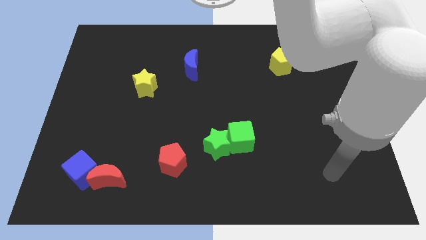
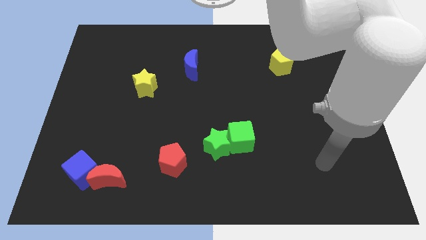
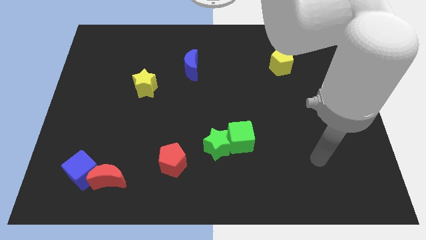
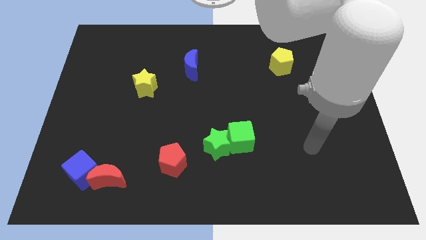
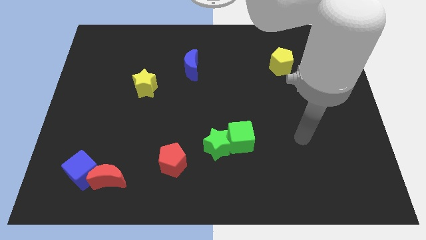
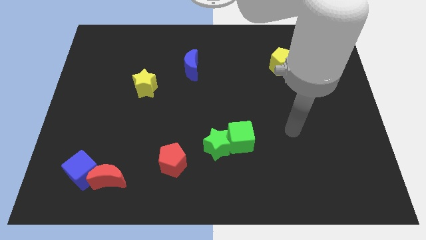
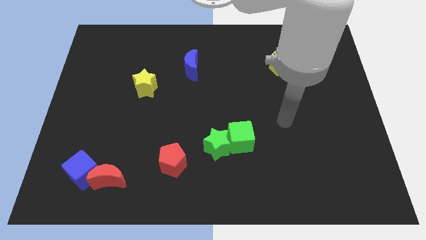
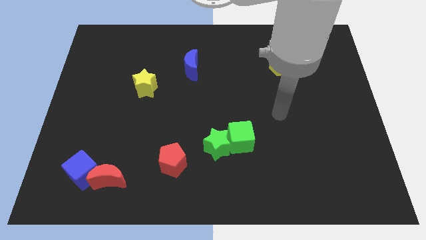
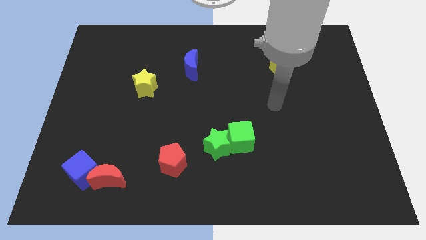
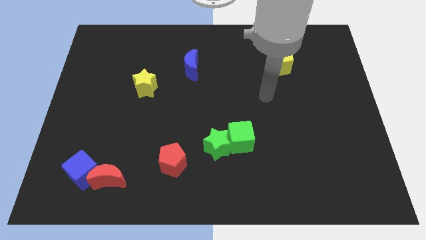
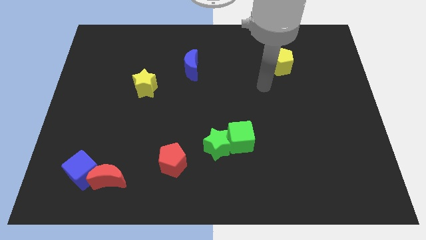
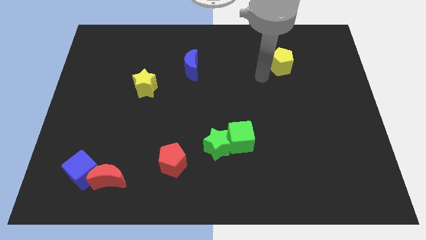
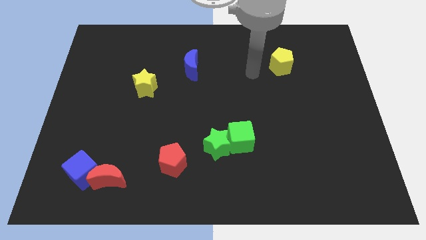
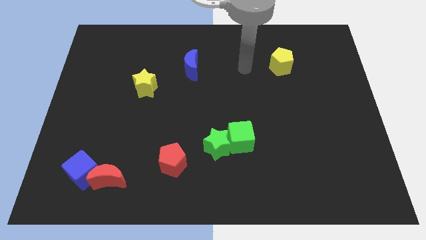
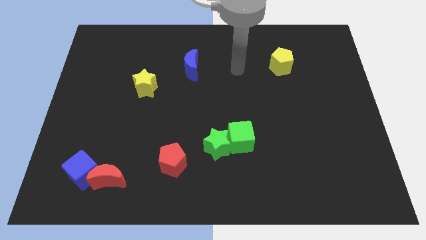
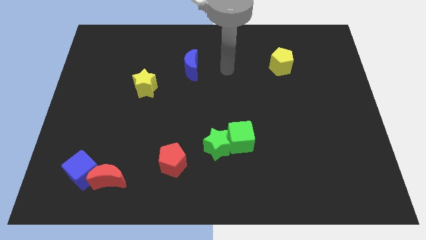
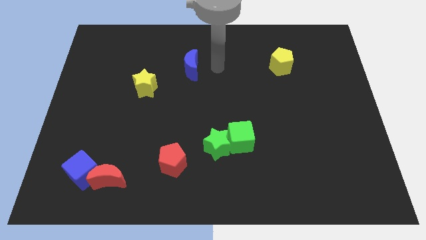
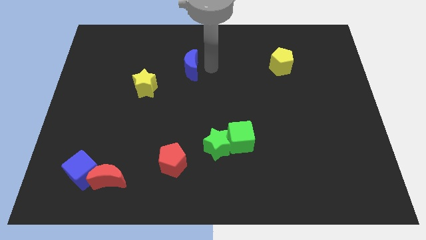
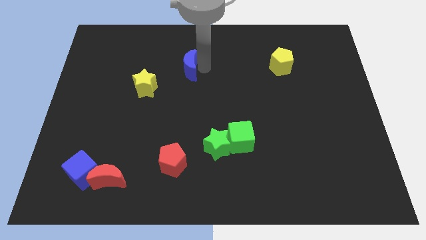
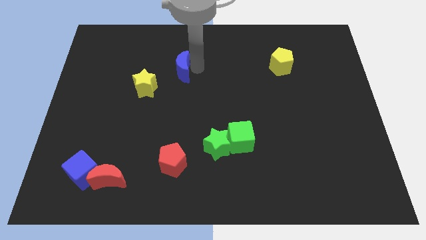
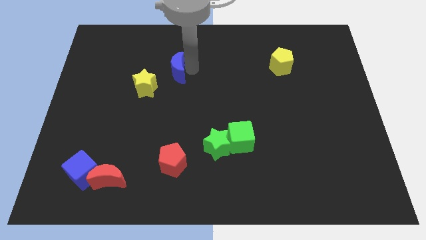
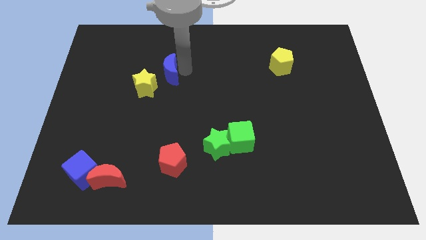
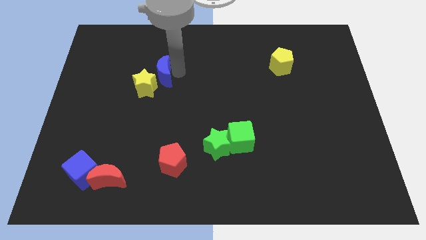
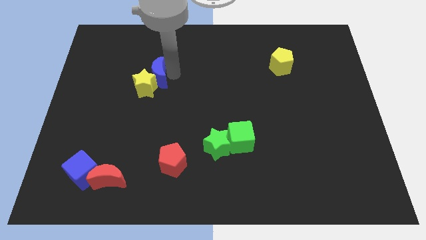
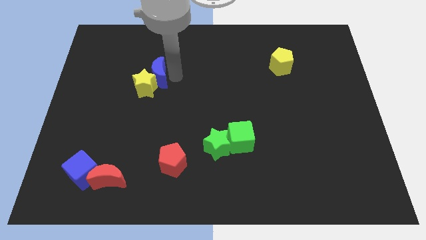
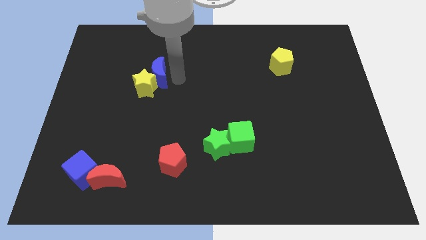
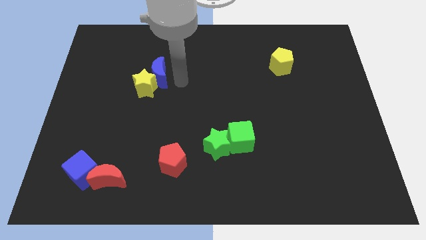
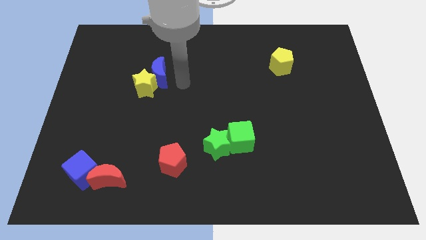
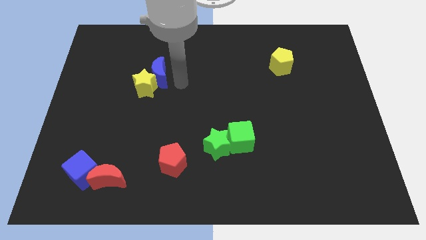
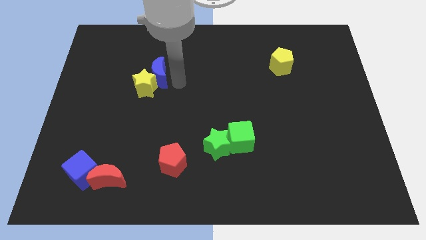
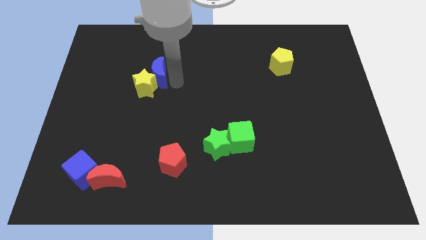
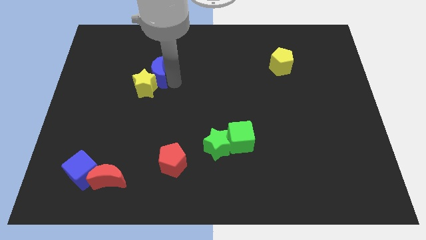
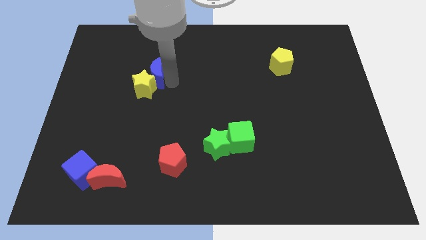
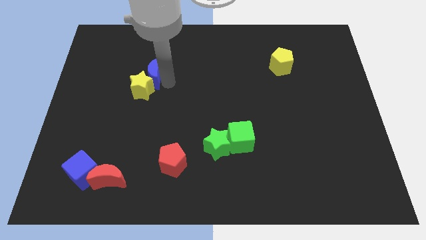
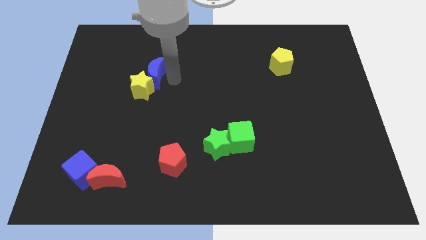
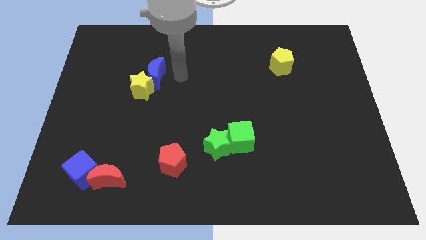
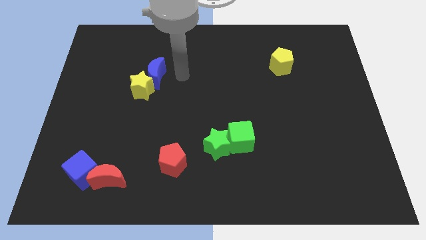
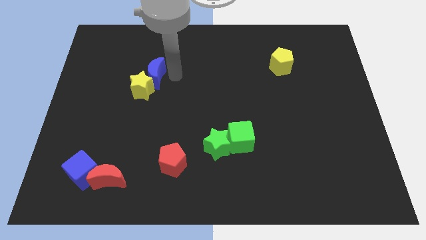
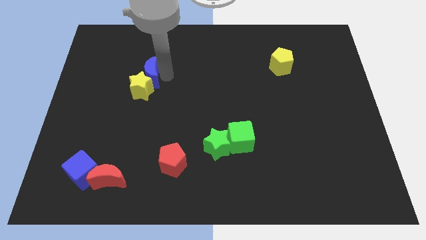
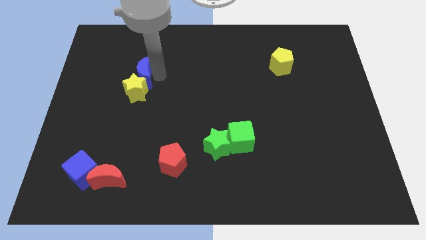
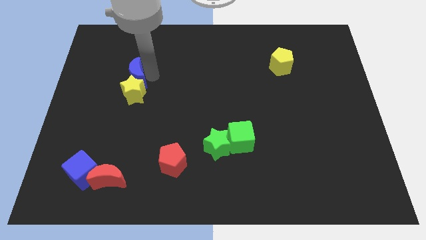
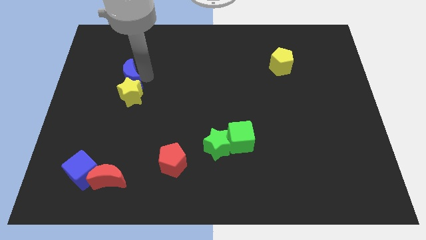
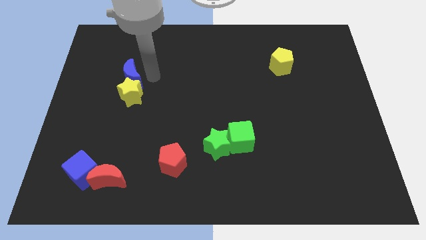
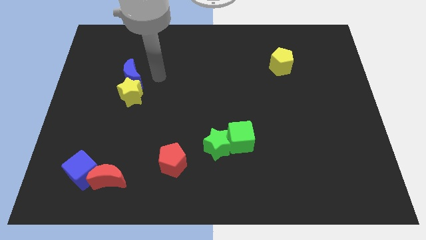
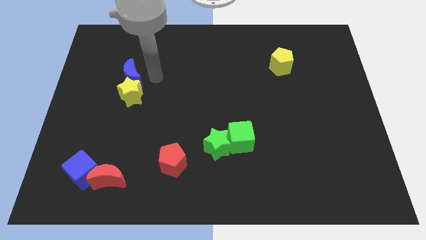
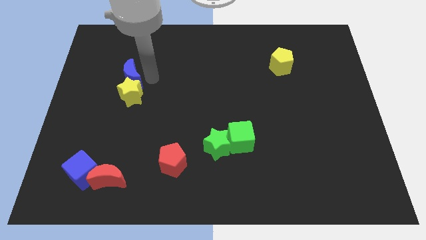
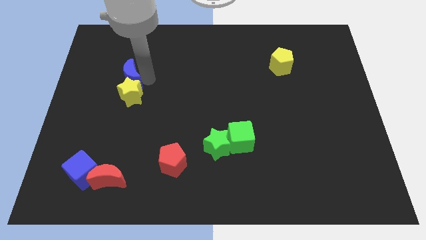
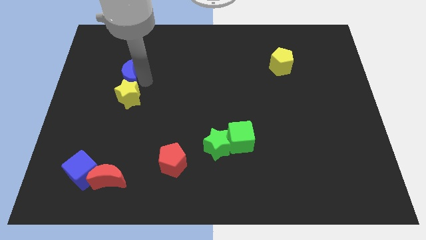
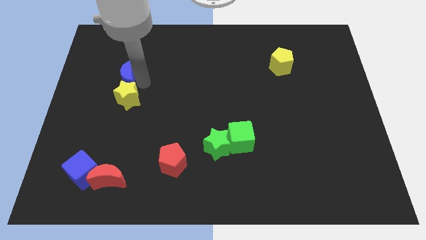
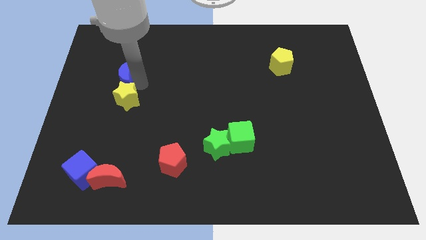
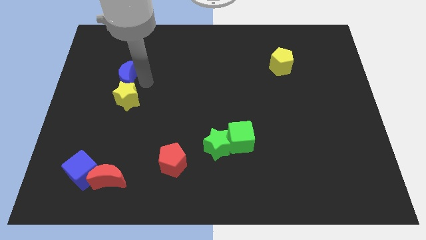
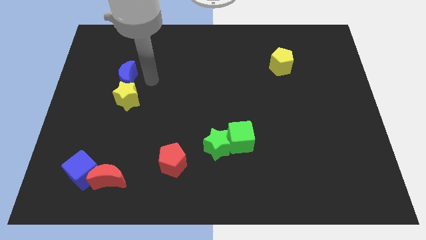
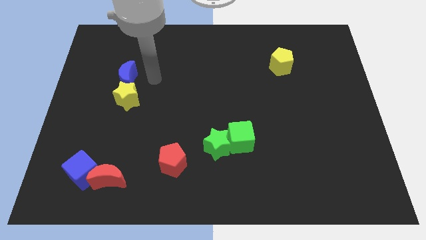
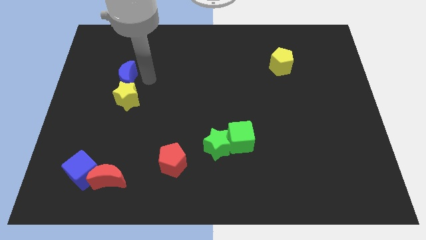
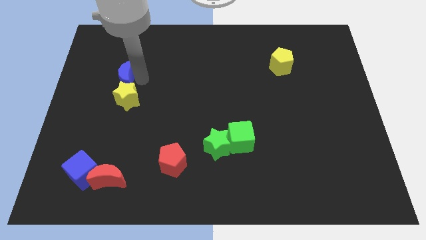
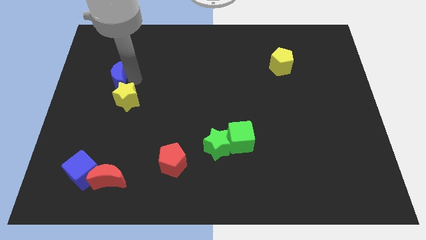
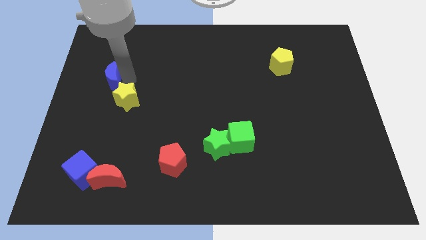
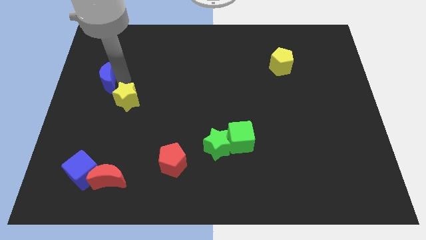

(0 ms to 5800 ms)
push the blue moon to the center left
